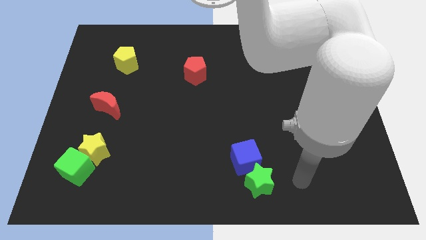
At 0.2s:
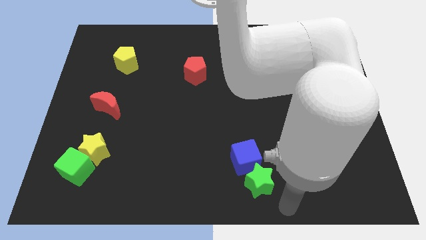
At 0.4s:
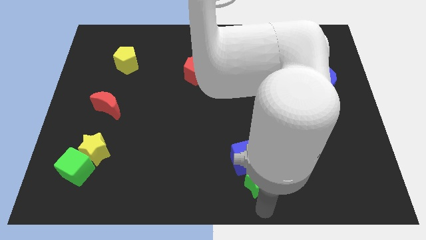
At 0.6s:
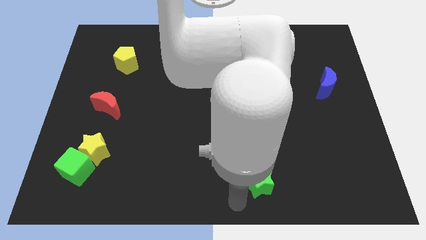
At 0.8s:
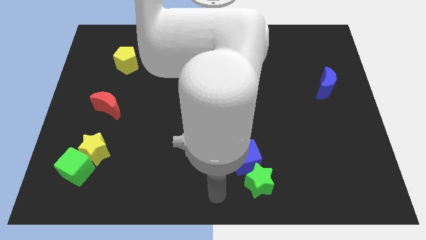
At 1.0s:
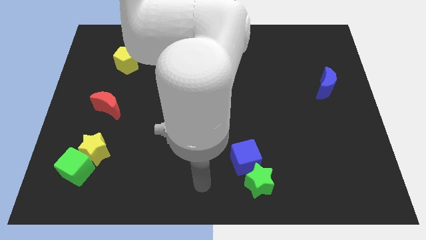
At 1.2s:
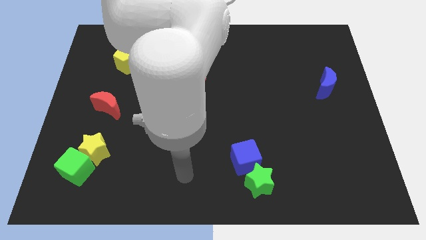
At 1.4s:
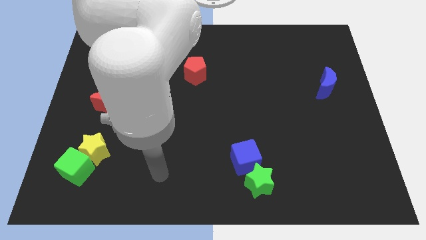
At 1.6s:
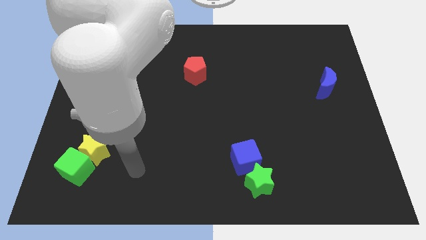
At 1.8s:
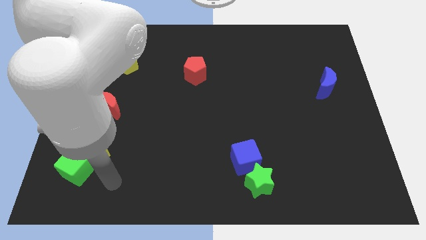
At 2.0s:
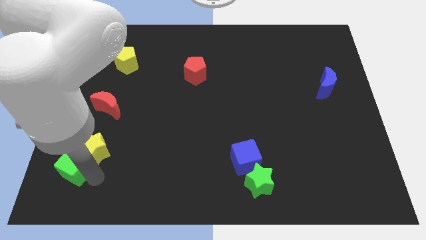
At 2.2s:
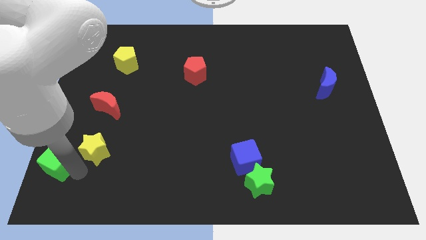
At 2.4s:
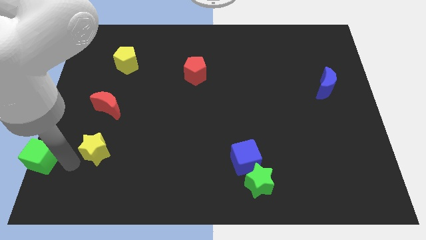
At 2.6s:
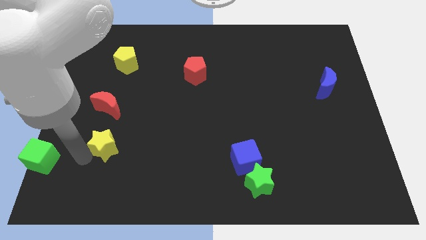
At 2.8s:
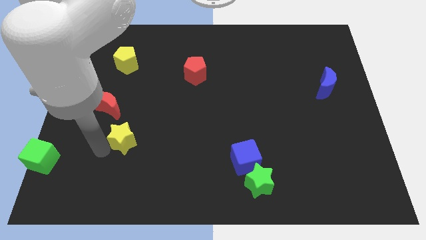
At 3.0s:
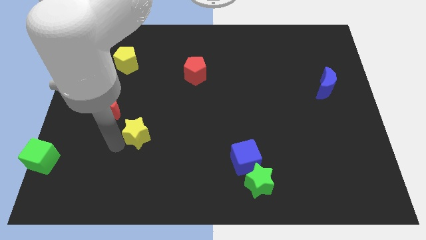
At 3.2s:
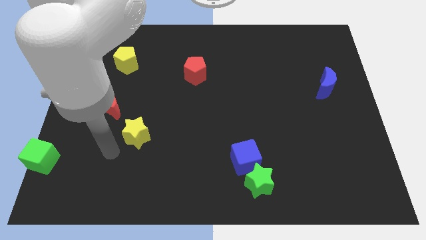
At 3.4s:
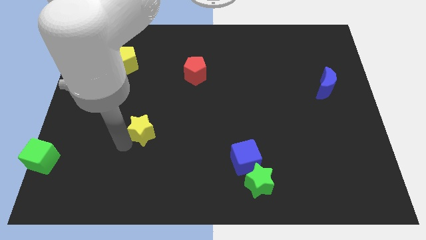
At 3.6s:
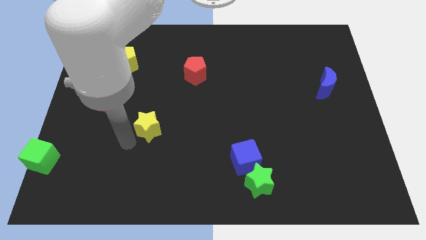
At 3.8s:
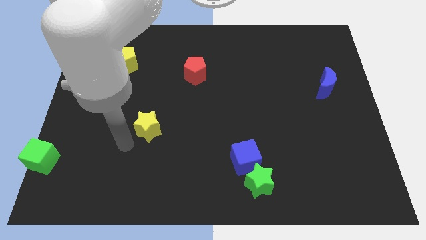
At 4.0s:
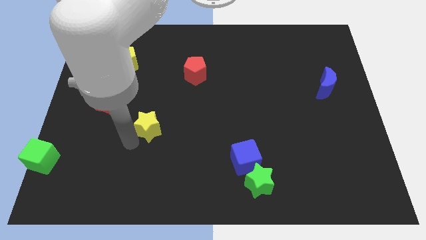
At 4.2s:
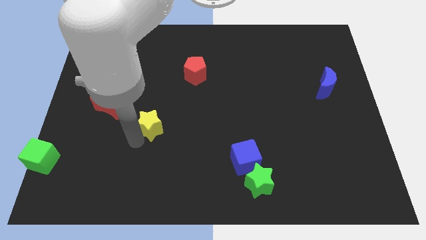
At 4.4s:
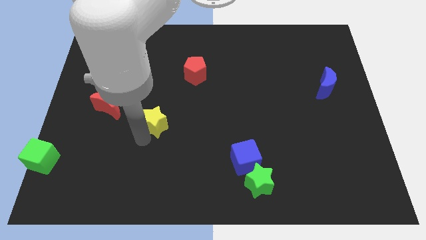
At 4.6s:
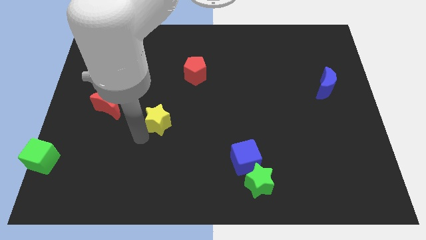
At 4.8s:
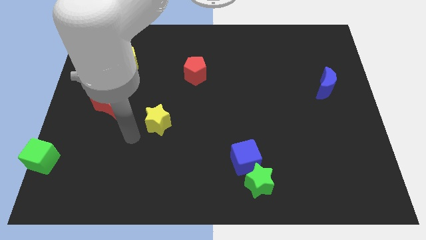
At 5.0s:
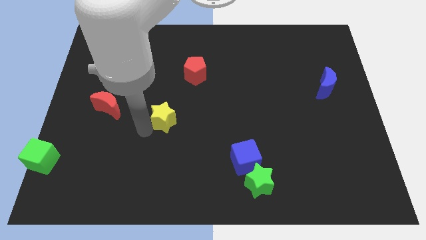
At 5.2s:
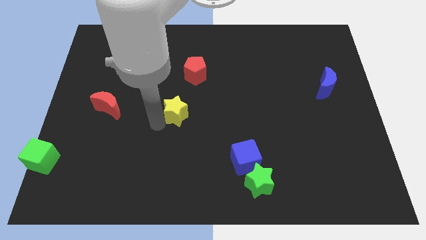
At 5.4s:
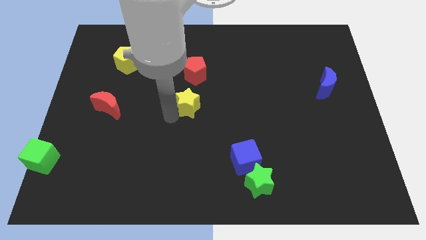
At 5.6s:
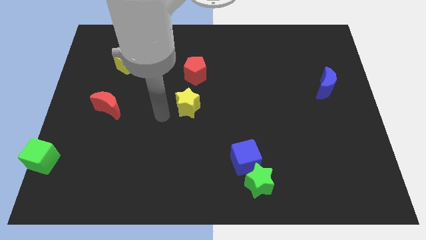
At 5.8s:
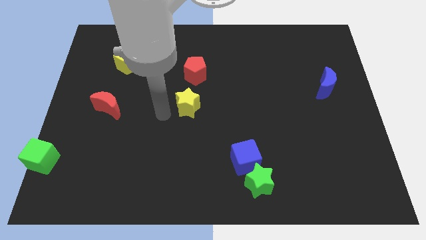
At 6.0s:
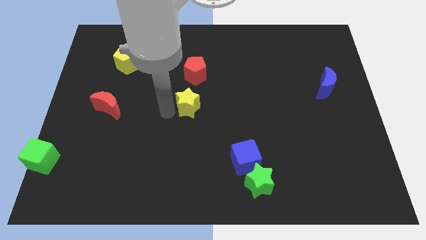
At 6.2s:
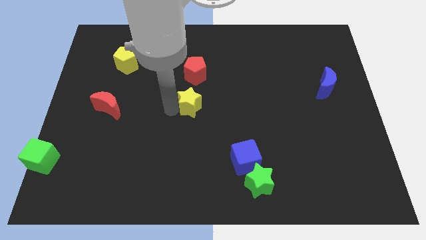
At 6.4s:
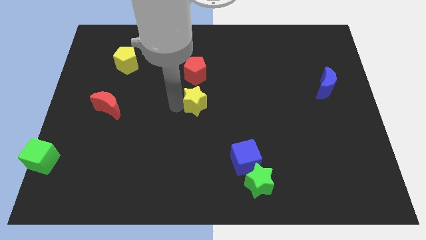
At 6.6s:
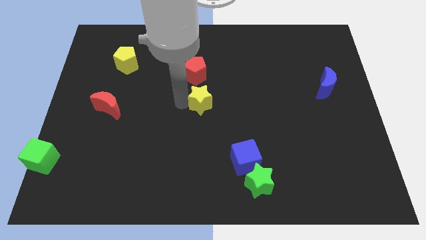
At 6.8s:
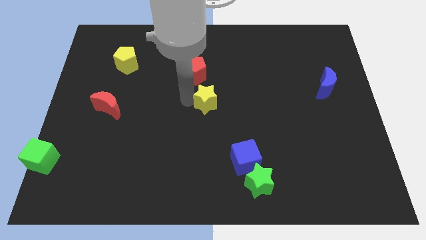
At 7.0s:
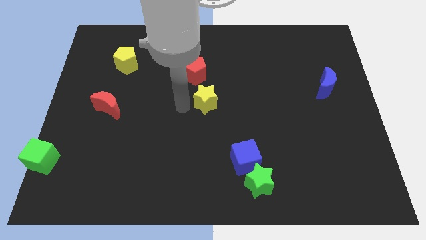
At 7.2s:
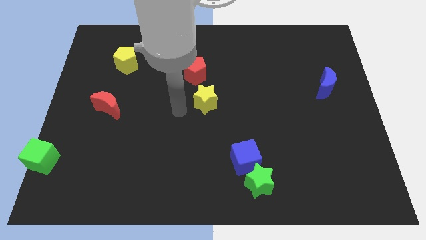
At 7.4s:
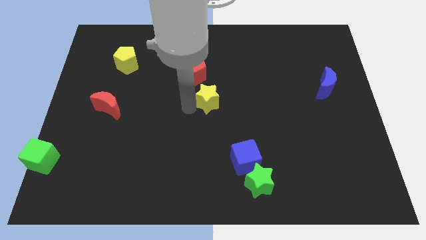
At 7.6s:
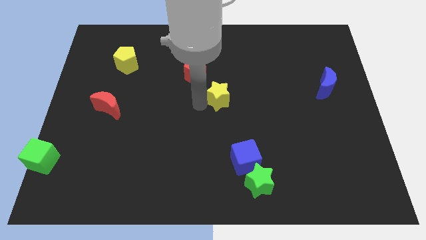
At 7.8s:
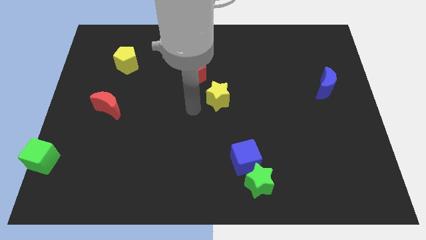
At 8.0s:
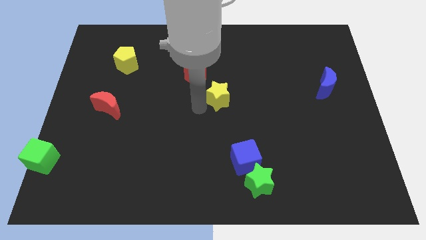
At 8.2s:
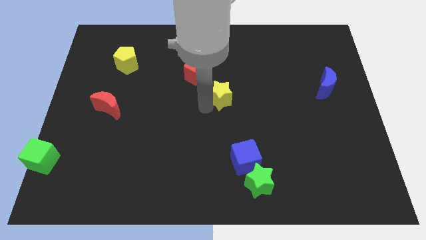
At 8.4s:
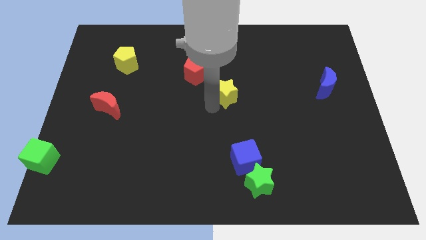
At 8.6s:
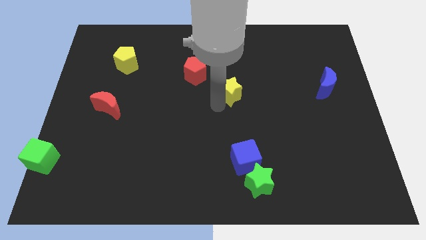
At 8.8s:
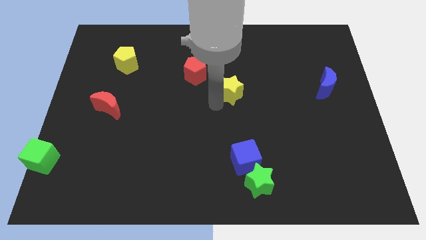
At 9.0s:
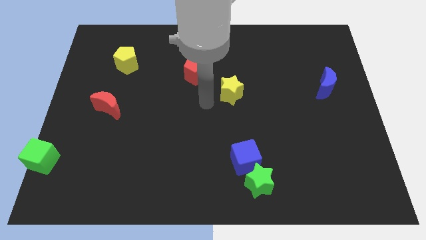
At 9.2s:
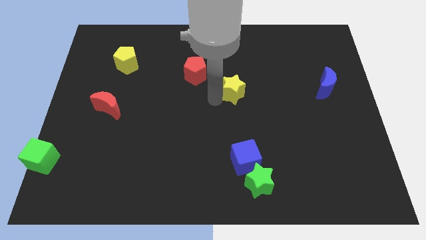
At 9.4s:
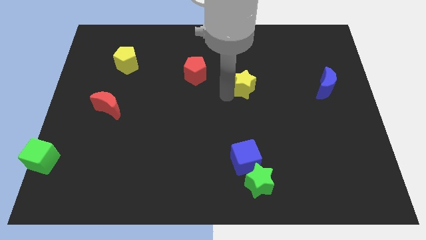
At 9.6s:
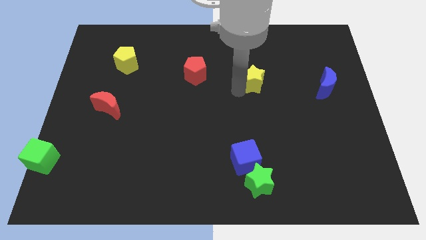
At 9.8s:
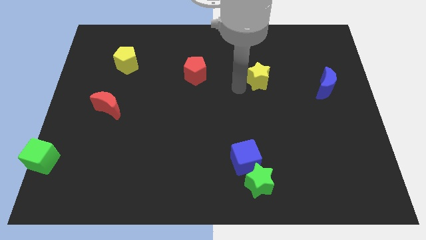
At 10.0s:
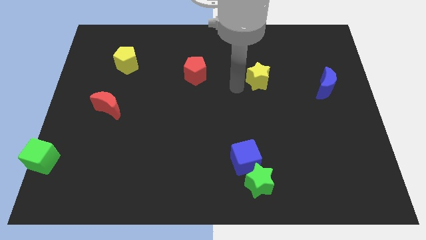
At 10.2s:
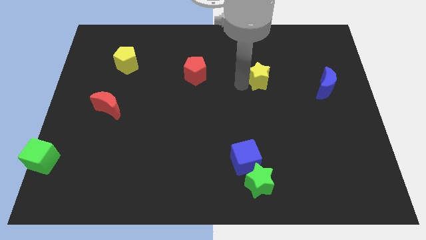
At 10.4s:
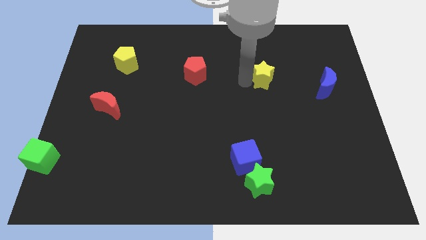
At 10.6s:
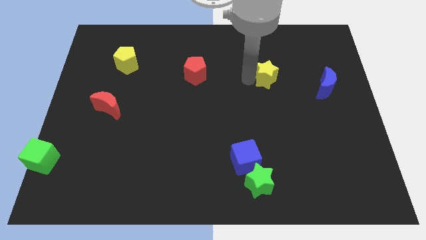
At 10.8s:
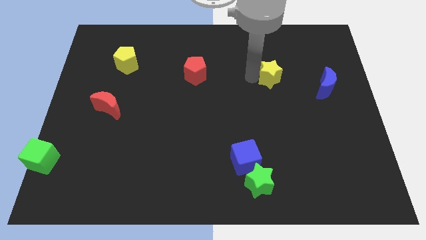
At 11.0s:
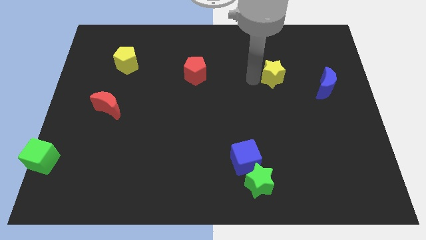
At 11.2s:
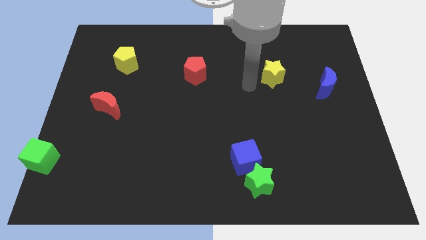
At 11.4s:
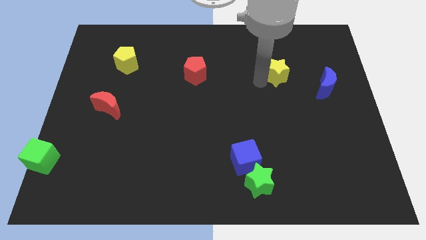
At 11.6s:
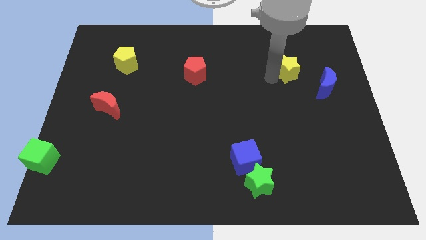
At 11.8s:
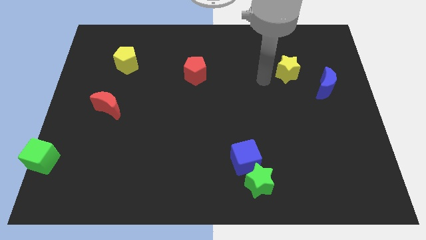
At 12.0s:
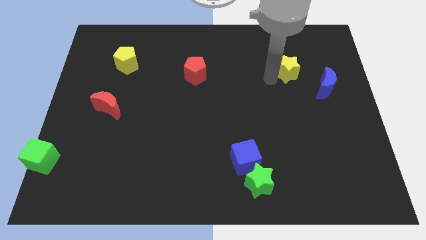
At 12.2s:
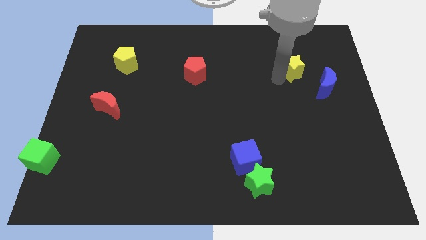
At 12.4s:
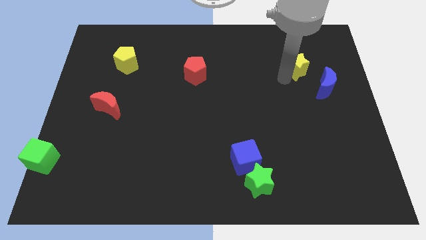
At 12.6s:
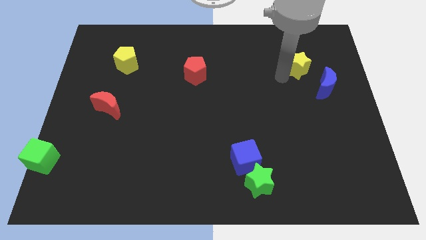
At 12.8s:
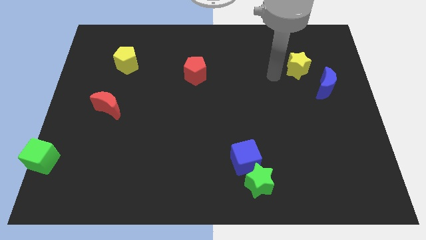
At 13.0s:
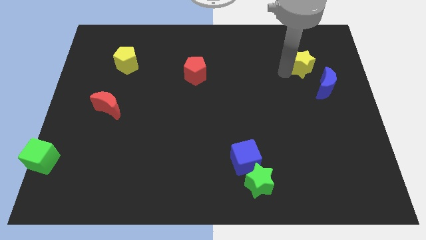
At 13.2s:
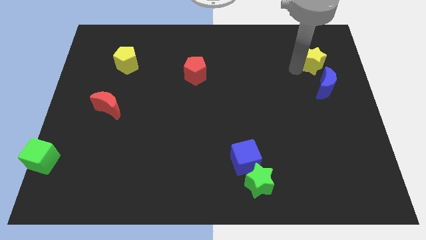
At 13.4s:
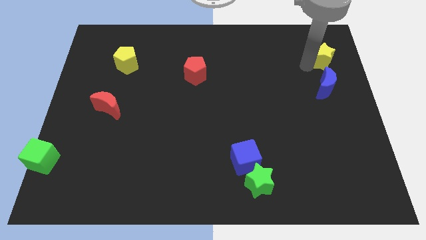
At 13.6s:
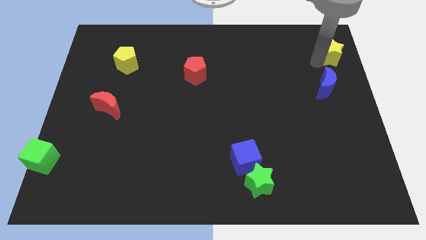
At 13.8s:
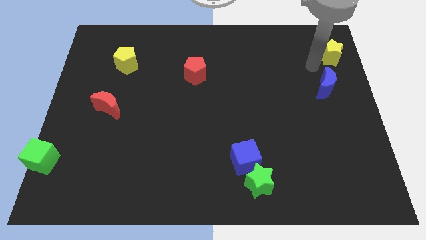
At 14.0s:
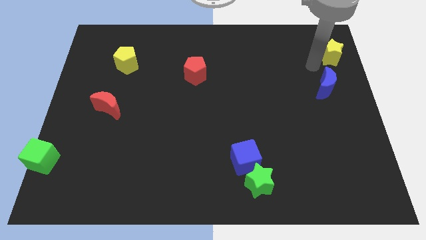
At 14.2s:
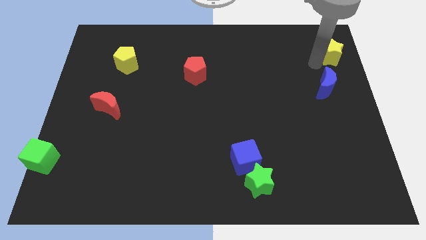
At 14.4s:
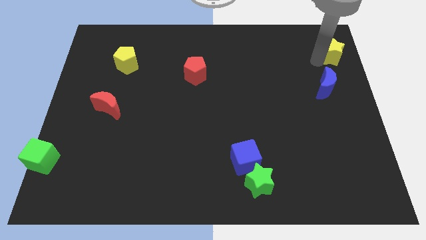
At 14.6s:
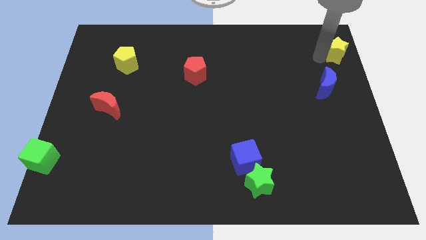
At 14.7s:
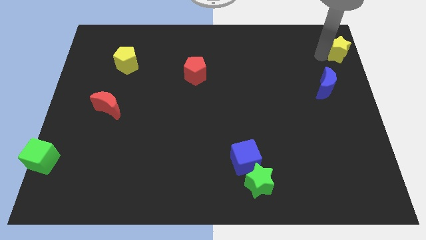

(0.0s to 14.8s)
move the yellow star to the top right corner
